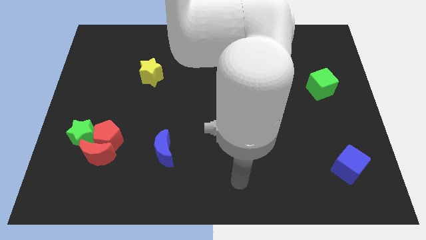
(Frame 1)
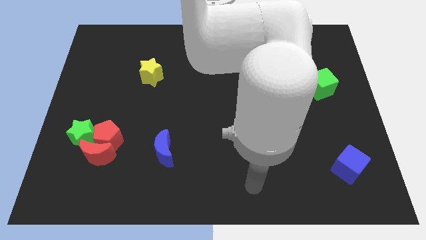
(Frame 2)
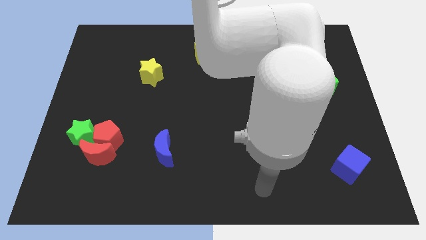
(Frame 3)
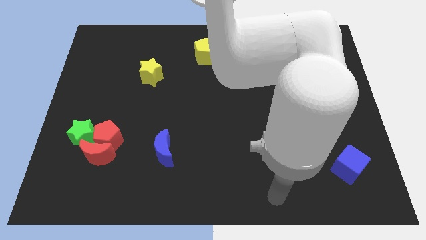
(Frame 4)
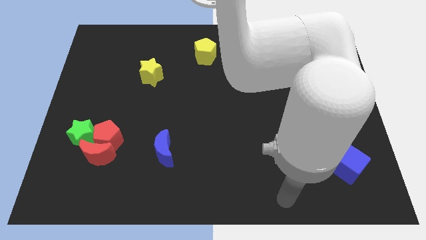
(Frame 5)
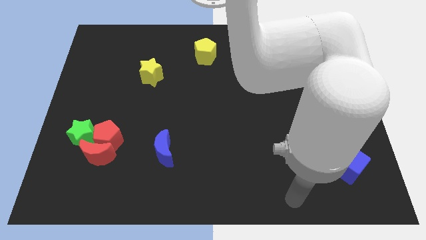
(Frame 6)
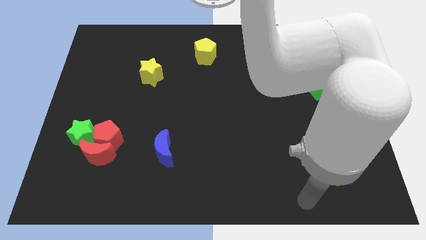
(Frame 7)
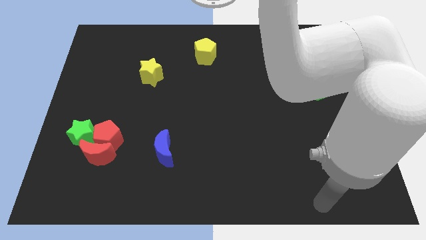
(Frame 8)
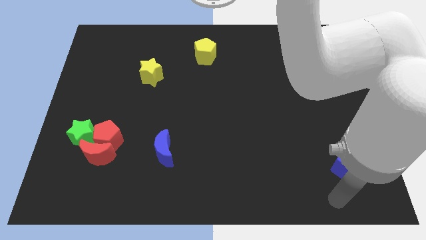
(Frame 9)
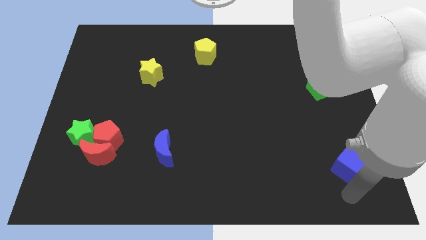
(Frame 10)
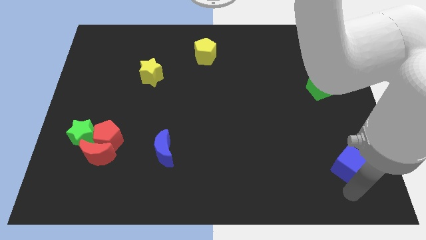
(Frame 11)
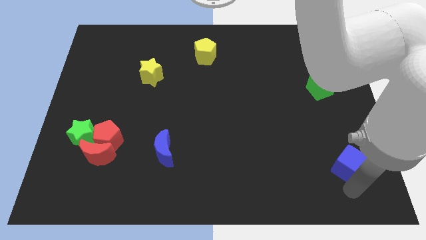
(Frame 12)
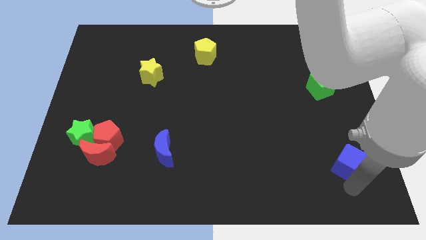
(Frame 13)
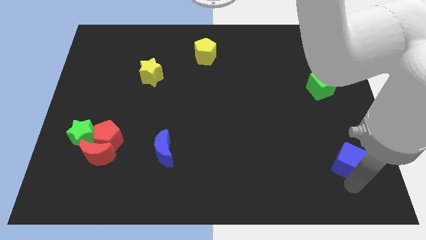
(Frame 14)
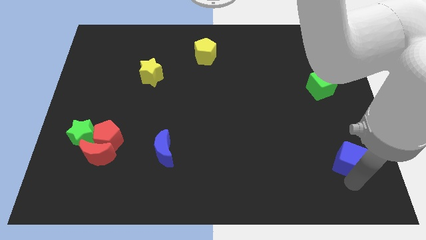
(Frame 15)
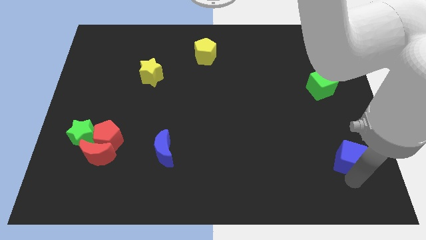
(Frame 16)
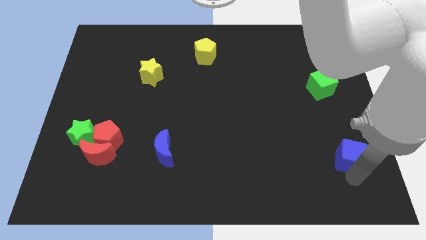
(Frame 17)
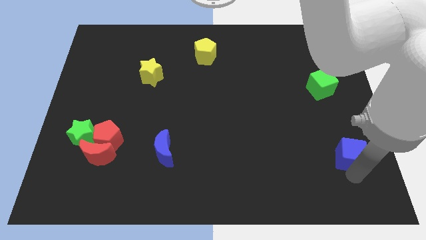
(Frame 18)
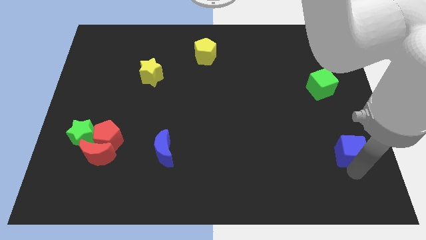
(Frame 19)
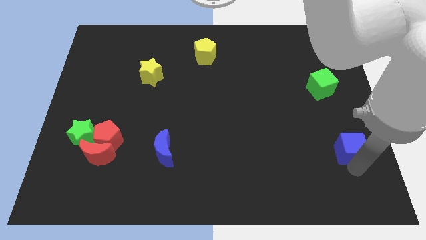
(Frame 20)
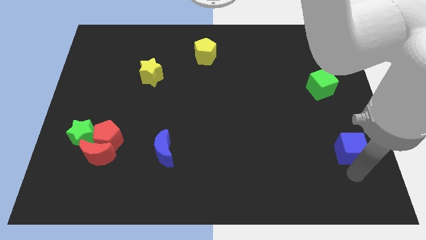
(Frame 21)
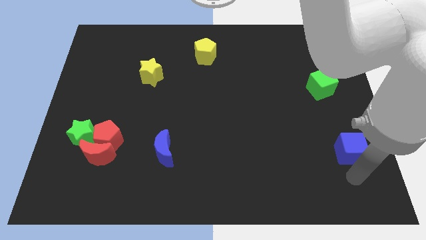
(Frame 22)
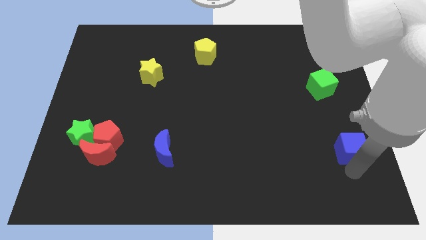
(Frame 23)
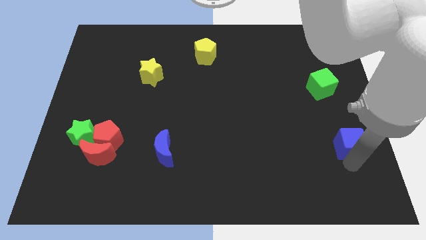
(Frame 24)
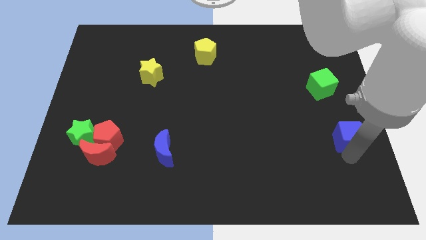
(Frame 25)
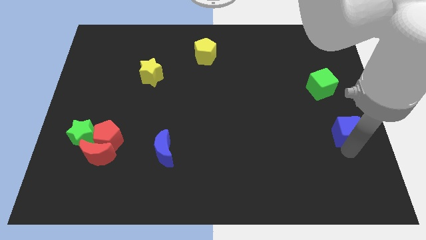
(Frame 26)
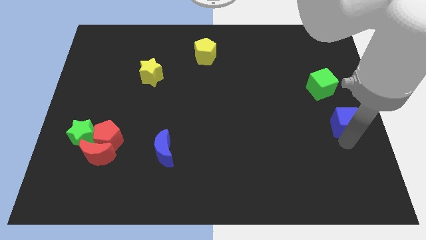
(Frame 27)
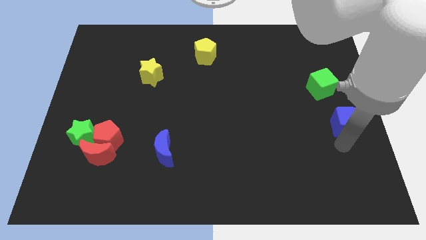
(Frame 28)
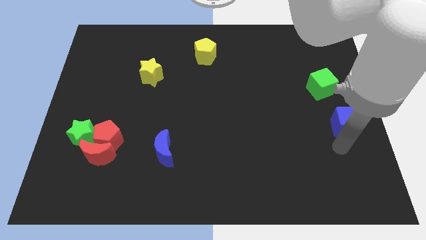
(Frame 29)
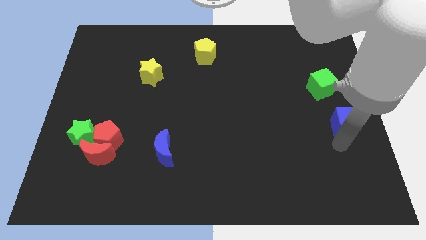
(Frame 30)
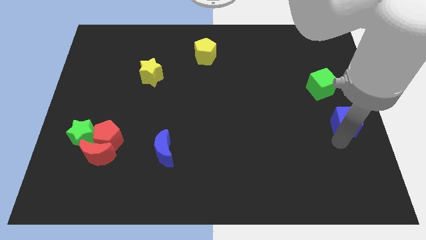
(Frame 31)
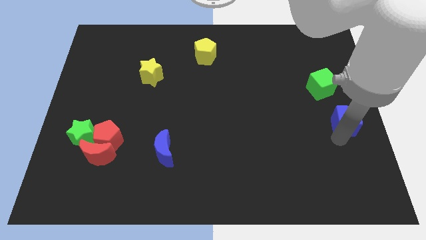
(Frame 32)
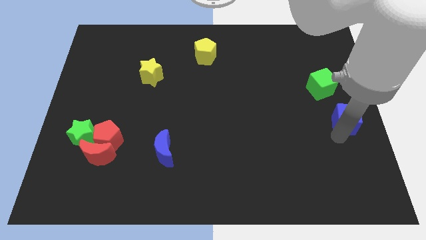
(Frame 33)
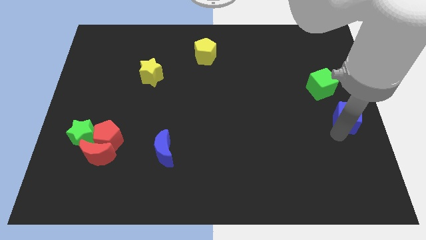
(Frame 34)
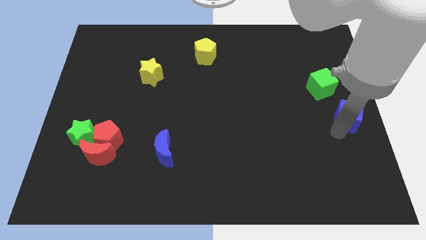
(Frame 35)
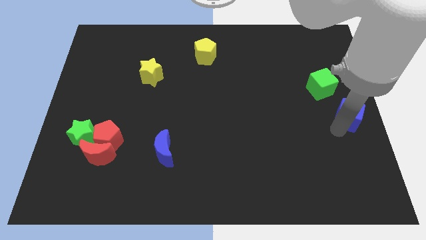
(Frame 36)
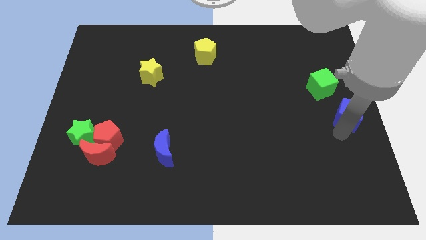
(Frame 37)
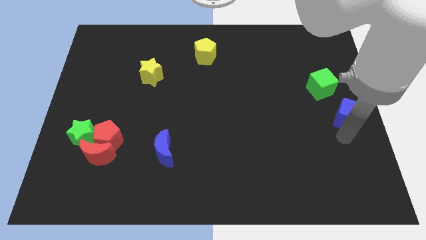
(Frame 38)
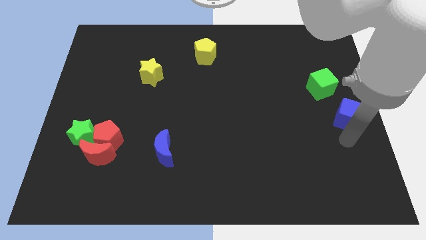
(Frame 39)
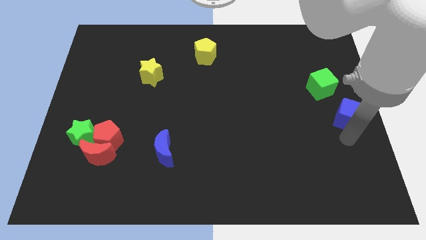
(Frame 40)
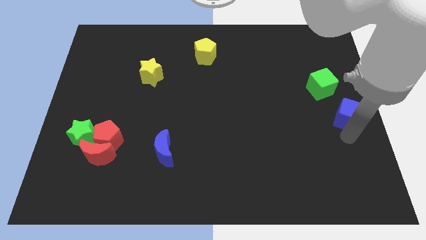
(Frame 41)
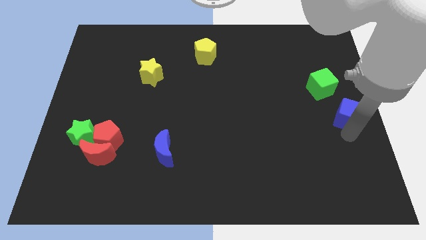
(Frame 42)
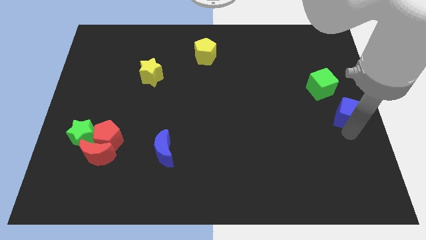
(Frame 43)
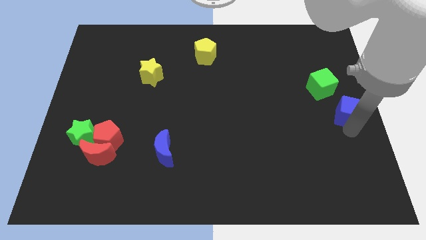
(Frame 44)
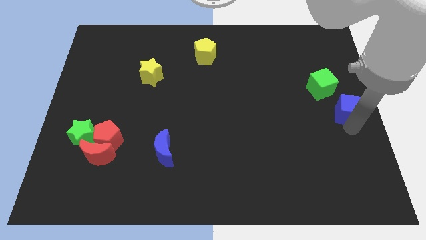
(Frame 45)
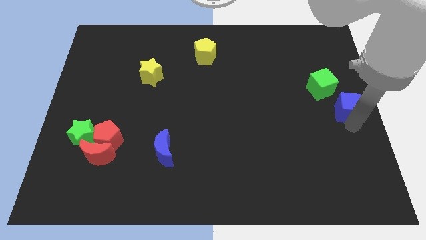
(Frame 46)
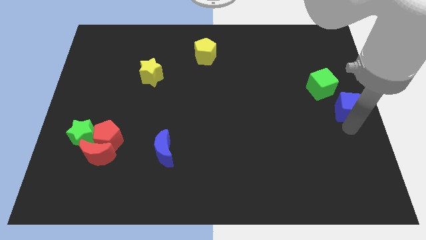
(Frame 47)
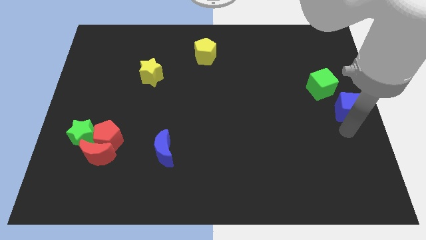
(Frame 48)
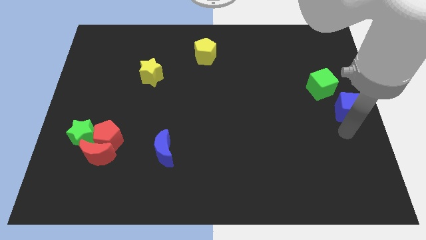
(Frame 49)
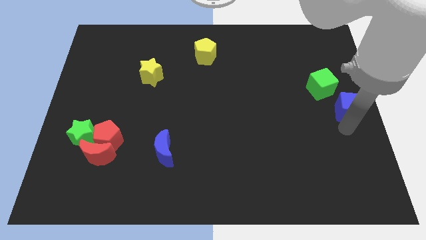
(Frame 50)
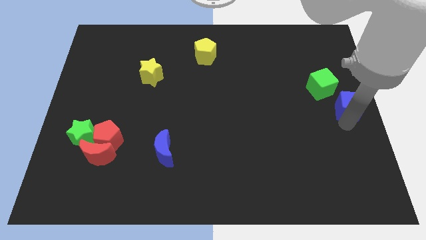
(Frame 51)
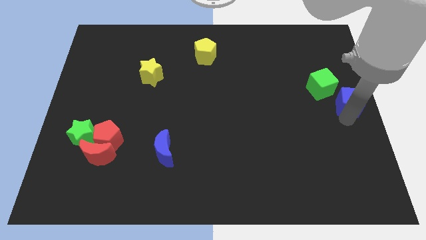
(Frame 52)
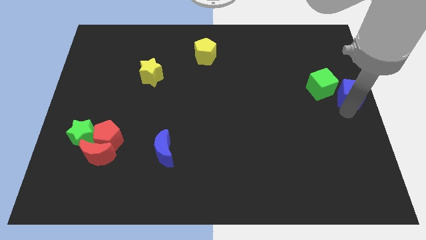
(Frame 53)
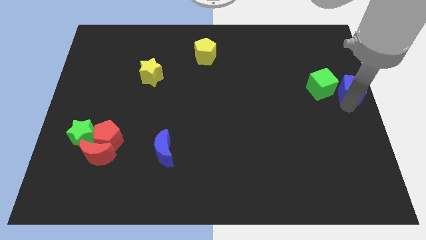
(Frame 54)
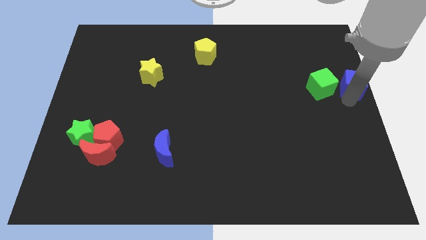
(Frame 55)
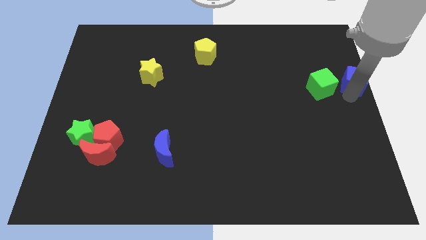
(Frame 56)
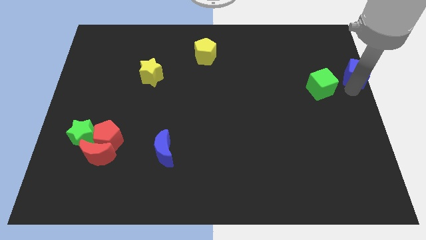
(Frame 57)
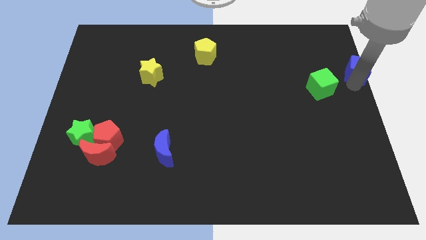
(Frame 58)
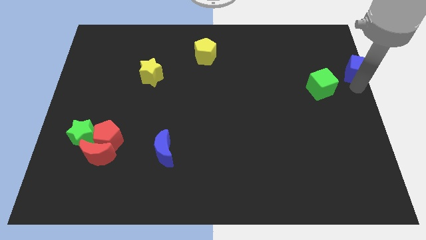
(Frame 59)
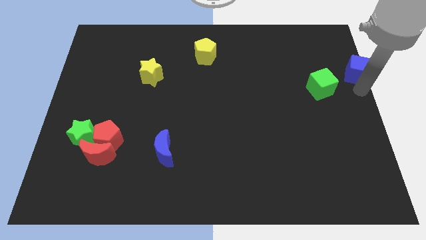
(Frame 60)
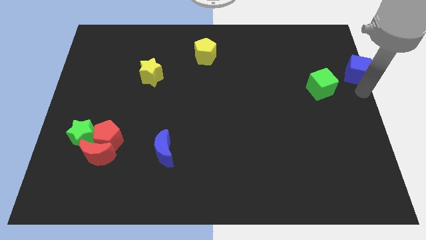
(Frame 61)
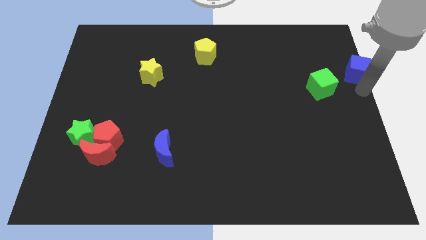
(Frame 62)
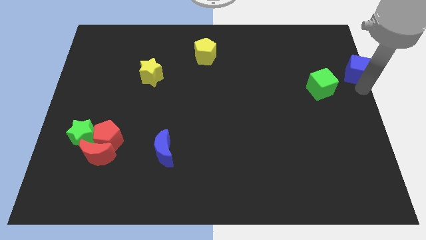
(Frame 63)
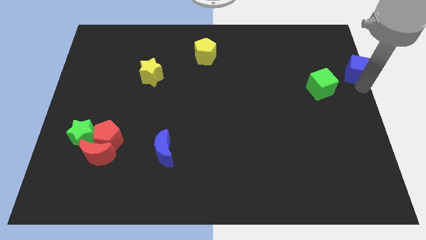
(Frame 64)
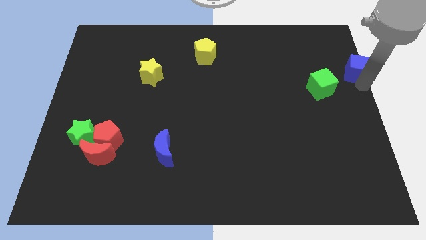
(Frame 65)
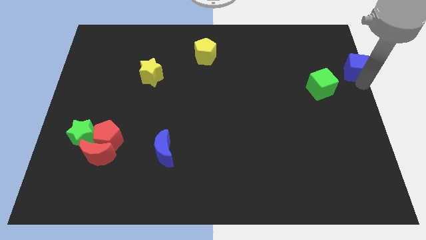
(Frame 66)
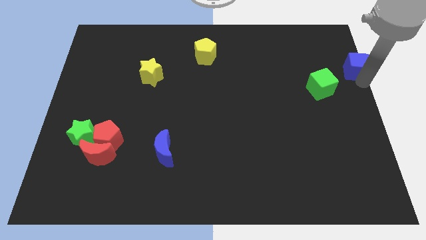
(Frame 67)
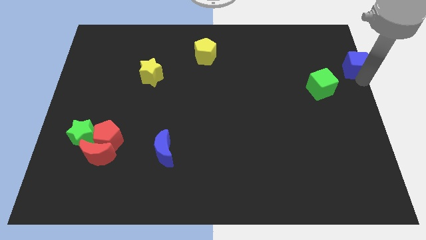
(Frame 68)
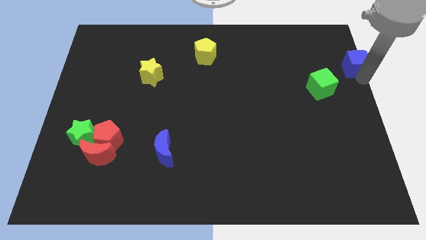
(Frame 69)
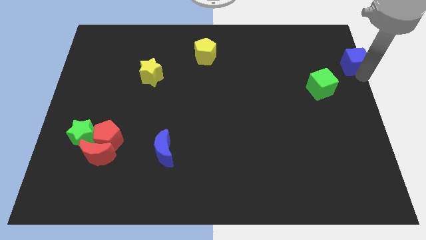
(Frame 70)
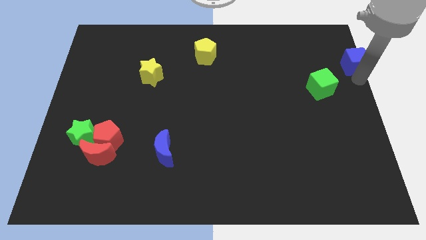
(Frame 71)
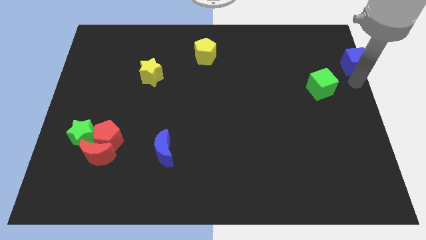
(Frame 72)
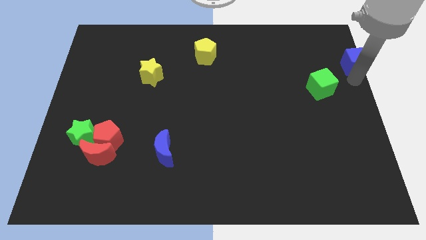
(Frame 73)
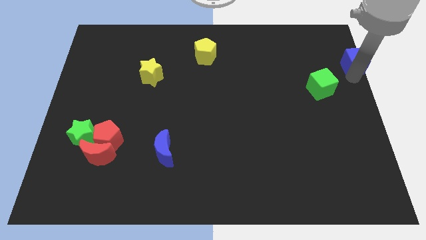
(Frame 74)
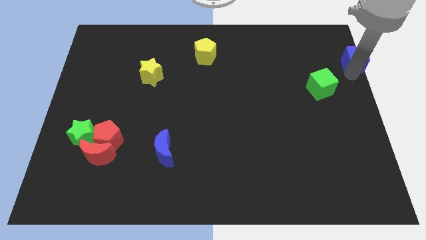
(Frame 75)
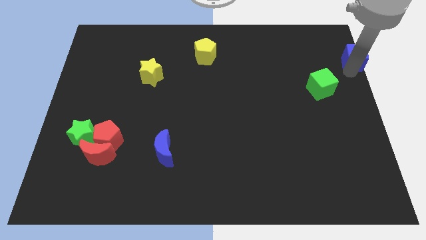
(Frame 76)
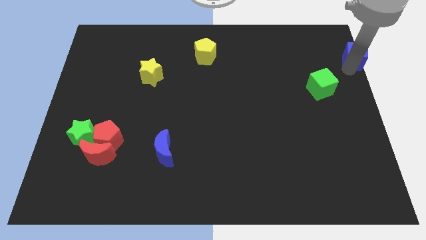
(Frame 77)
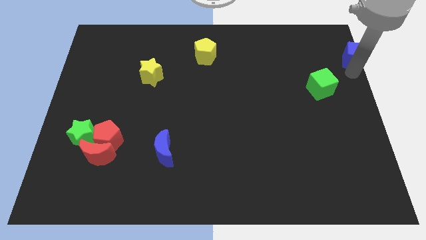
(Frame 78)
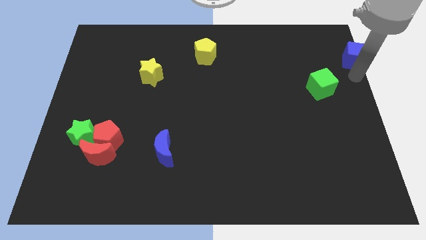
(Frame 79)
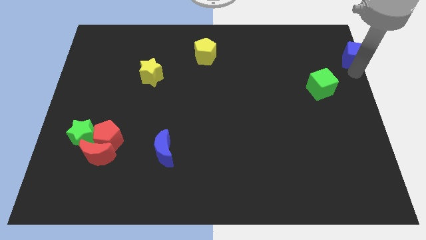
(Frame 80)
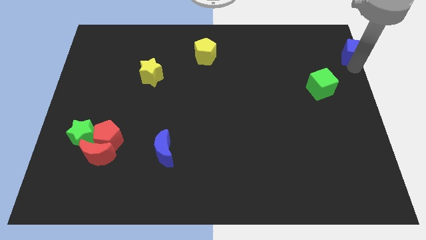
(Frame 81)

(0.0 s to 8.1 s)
slide the blue cube to the top right
